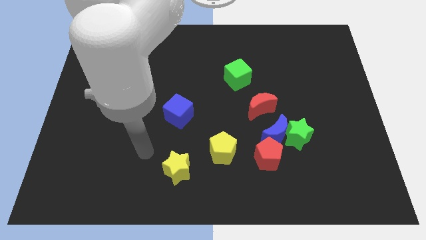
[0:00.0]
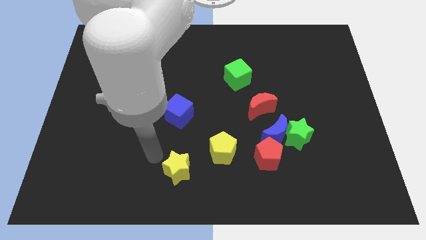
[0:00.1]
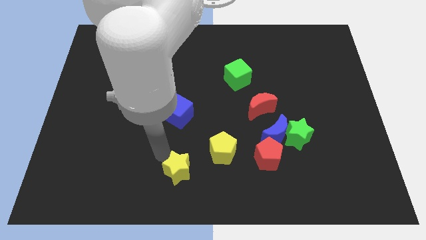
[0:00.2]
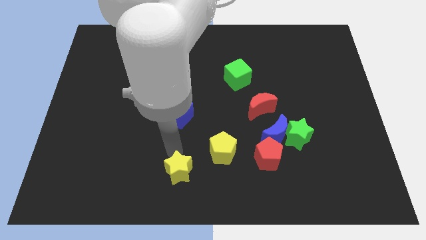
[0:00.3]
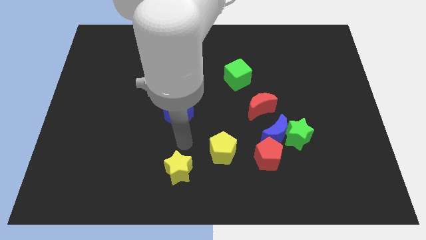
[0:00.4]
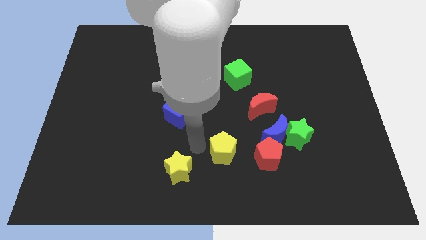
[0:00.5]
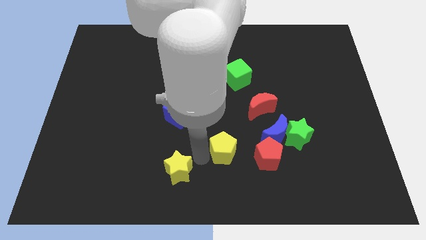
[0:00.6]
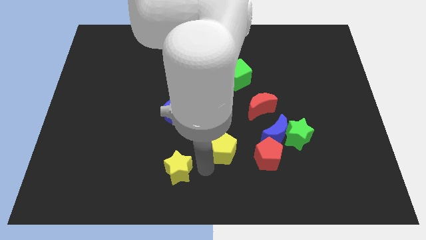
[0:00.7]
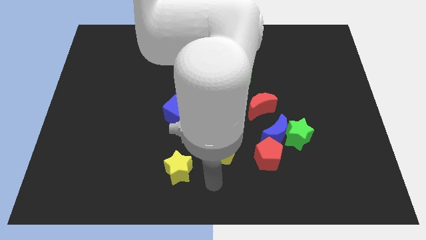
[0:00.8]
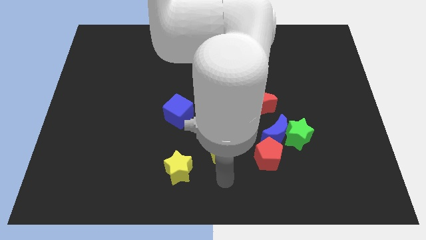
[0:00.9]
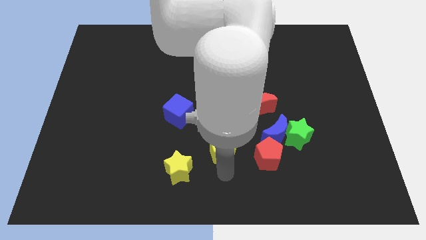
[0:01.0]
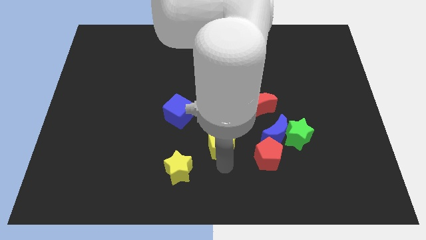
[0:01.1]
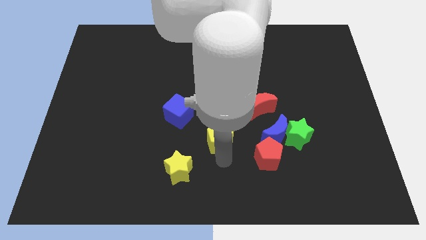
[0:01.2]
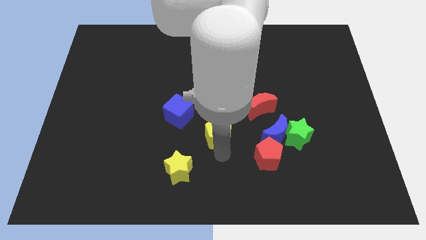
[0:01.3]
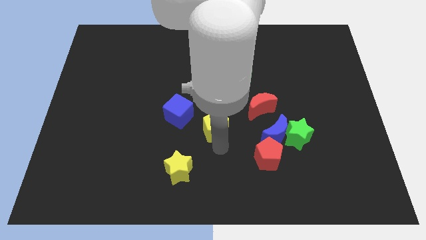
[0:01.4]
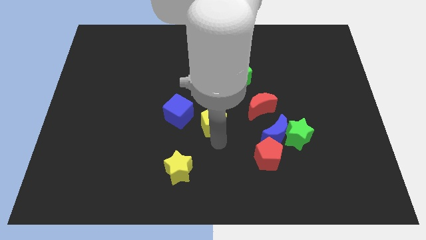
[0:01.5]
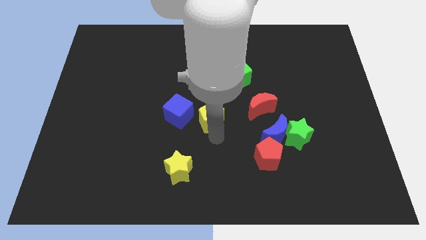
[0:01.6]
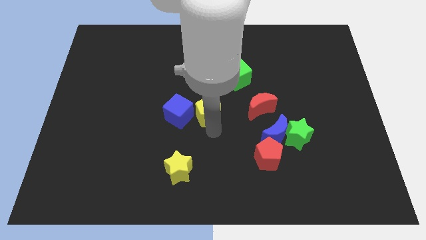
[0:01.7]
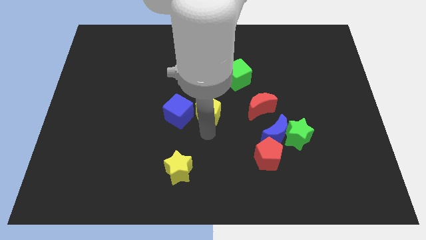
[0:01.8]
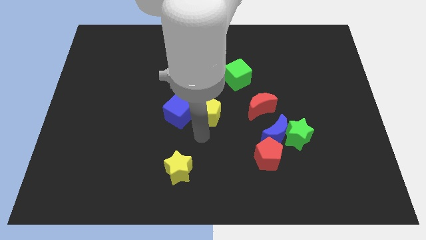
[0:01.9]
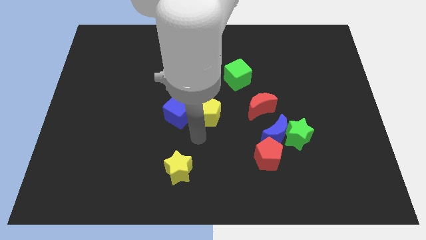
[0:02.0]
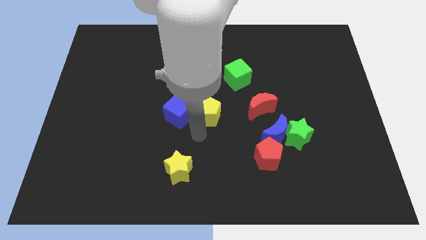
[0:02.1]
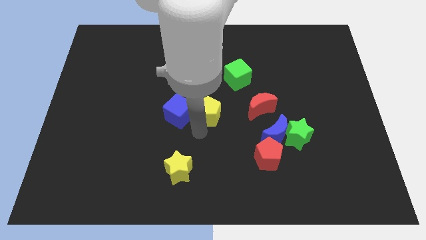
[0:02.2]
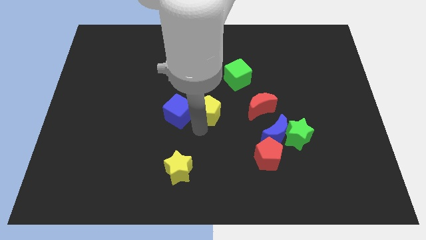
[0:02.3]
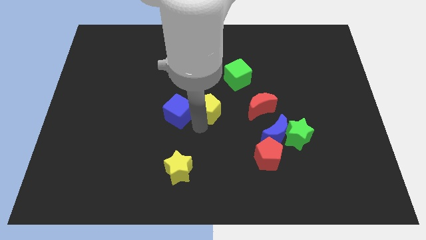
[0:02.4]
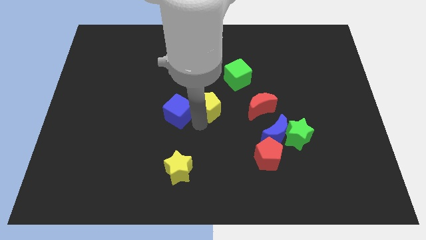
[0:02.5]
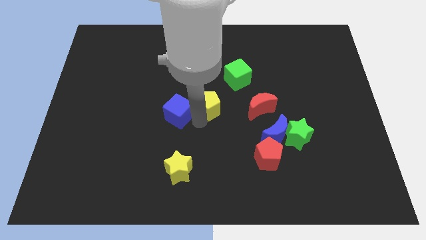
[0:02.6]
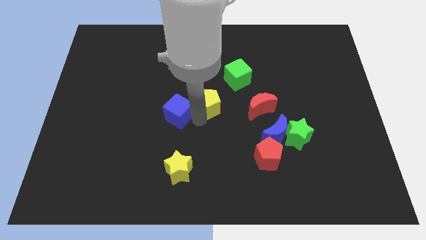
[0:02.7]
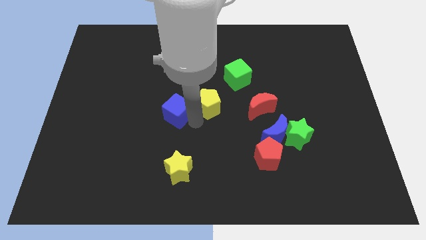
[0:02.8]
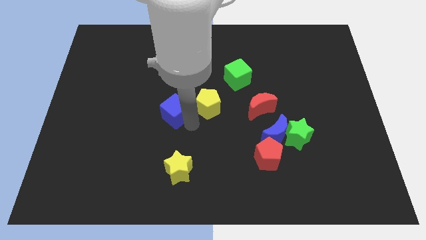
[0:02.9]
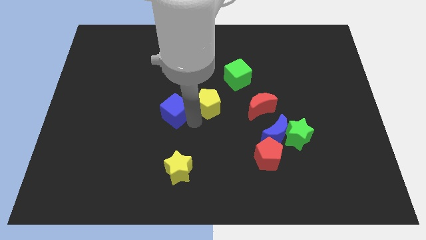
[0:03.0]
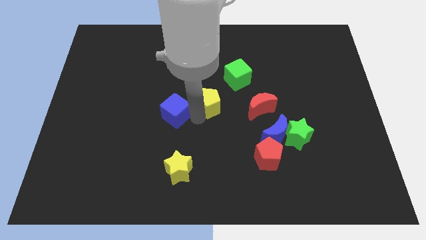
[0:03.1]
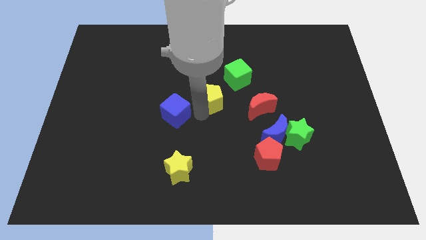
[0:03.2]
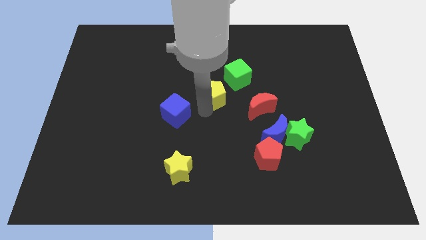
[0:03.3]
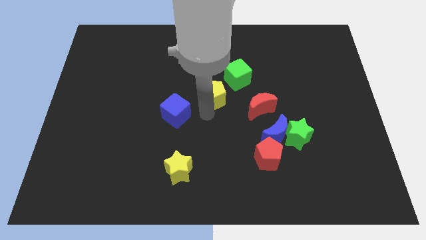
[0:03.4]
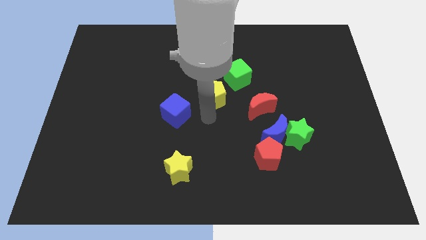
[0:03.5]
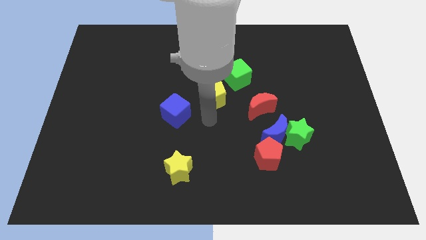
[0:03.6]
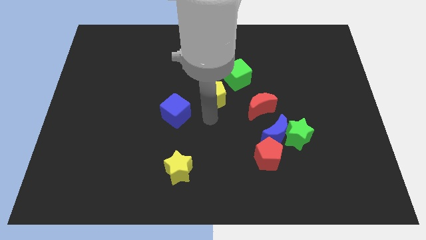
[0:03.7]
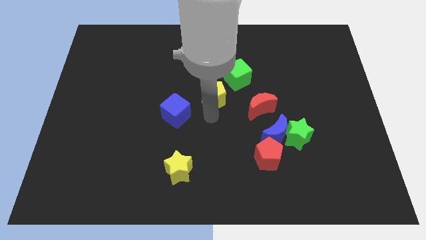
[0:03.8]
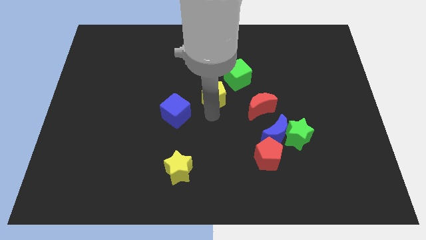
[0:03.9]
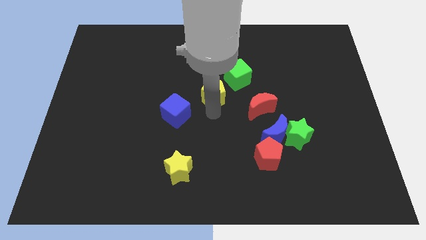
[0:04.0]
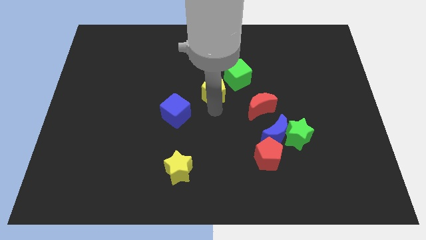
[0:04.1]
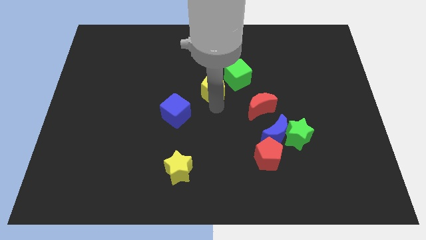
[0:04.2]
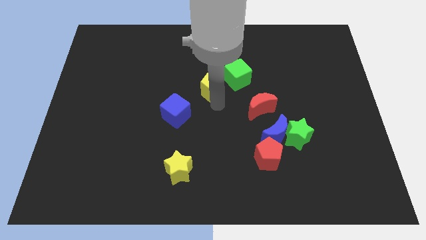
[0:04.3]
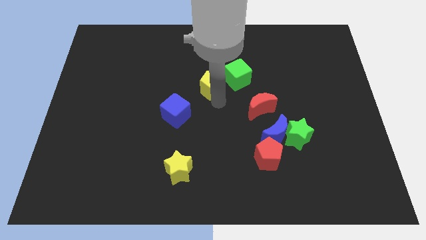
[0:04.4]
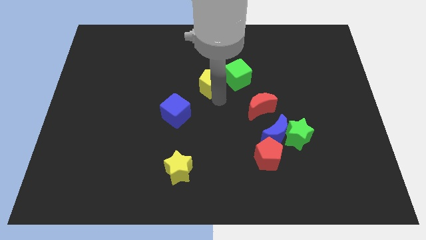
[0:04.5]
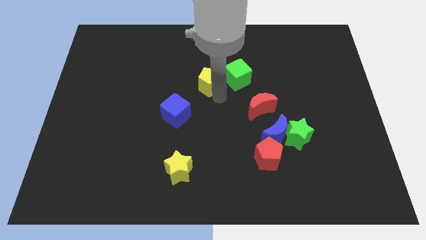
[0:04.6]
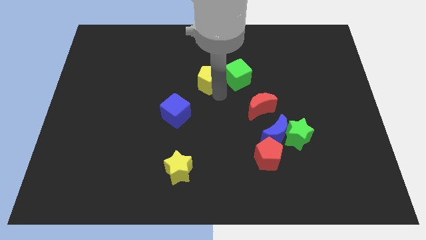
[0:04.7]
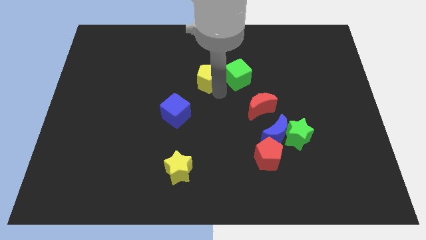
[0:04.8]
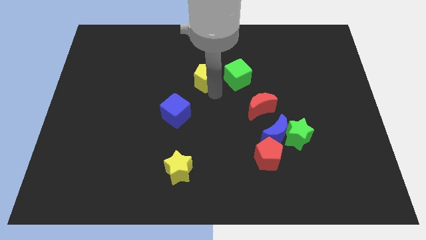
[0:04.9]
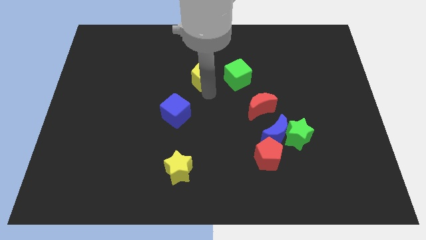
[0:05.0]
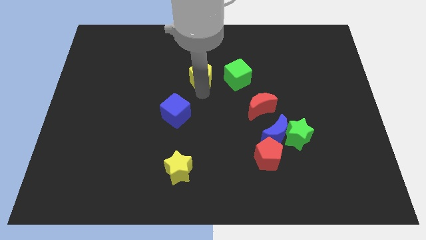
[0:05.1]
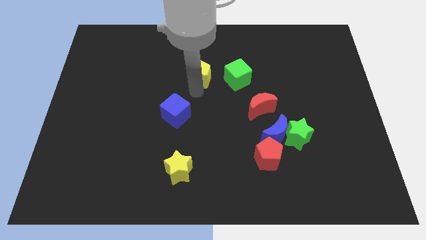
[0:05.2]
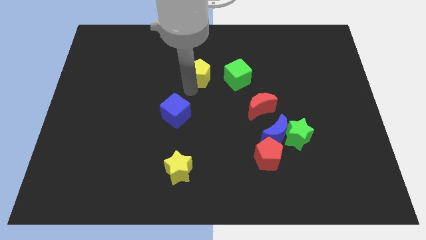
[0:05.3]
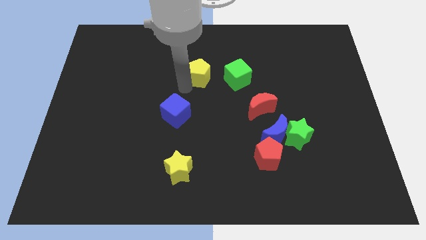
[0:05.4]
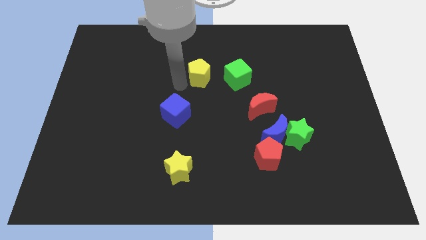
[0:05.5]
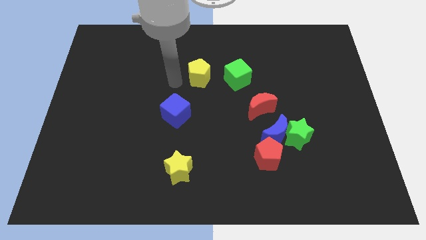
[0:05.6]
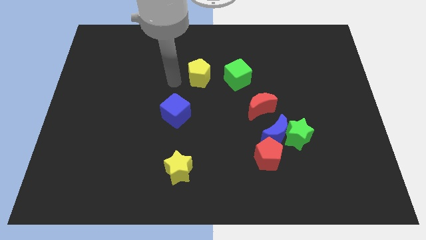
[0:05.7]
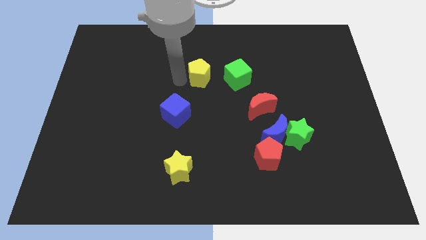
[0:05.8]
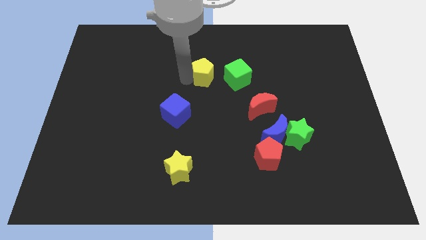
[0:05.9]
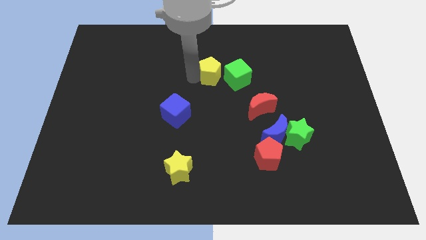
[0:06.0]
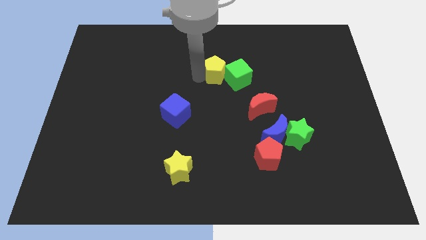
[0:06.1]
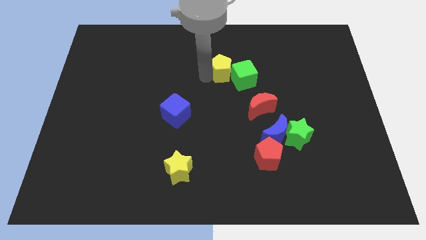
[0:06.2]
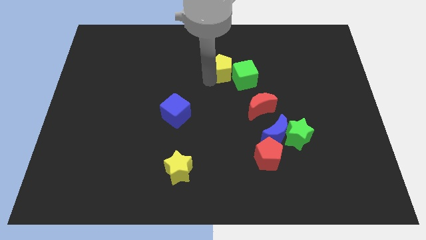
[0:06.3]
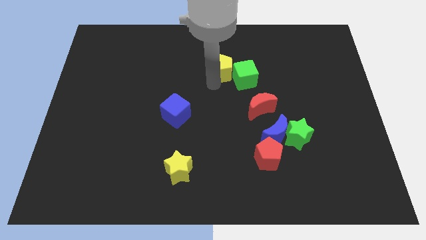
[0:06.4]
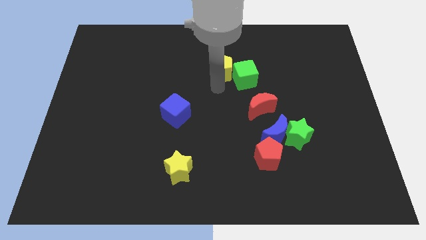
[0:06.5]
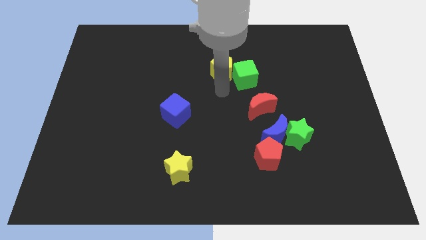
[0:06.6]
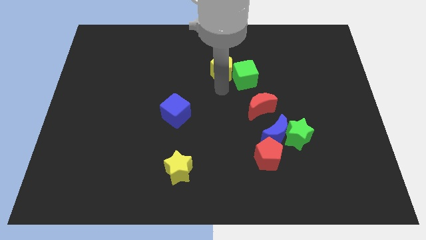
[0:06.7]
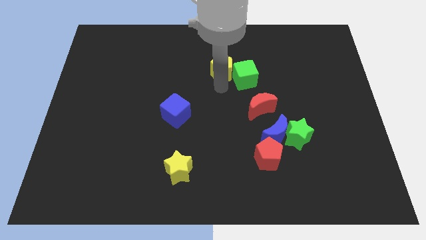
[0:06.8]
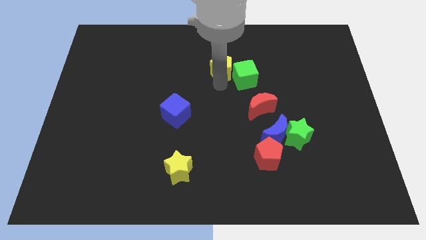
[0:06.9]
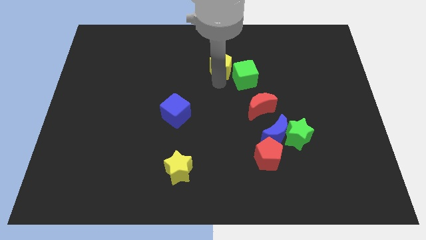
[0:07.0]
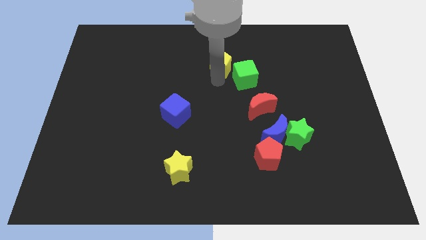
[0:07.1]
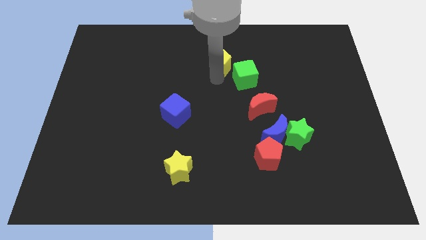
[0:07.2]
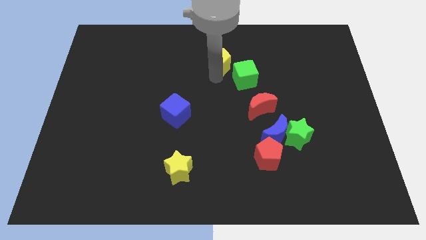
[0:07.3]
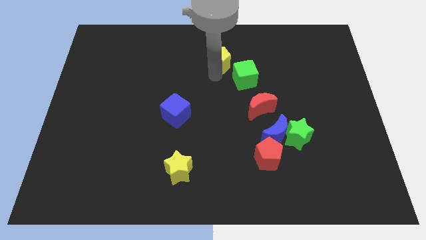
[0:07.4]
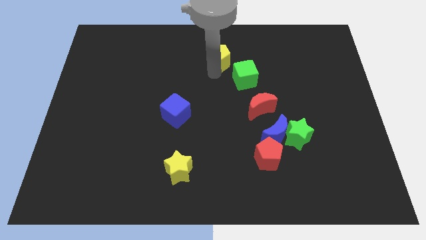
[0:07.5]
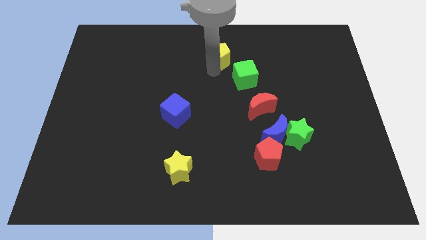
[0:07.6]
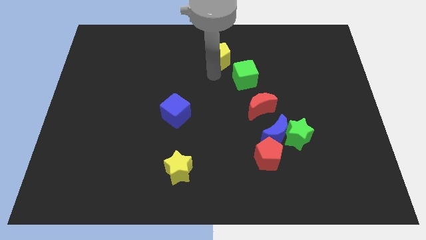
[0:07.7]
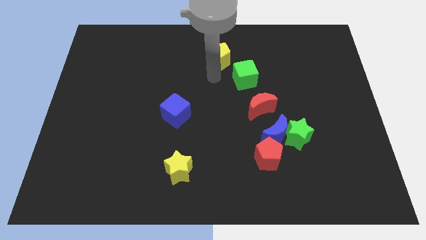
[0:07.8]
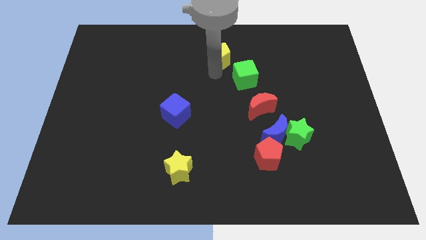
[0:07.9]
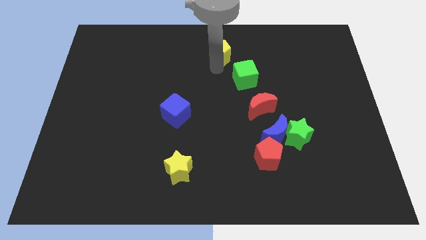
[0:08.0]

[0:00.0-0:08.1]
move the yellow pentagon to the top side
